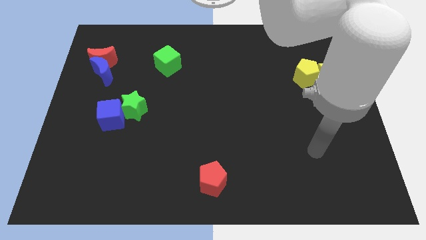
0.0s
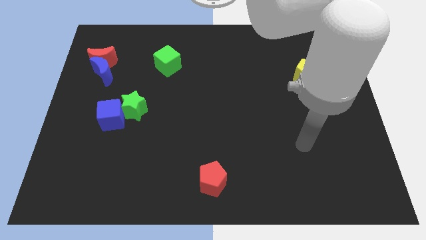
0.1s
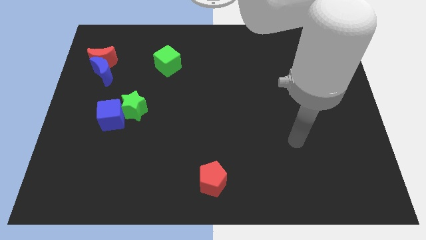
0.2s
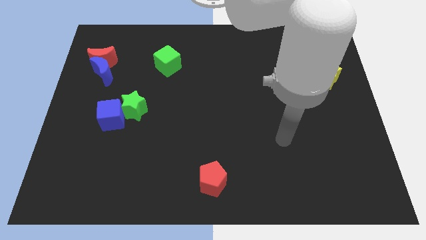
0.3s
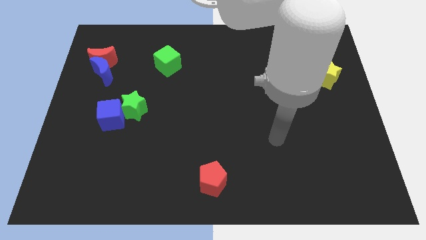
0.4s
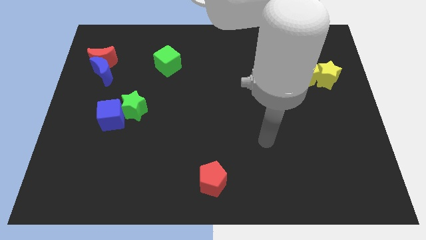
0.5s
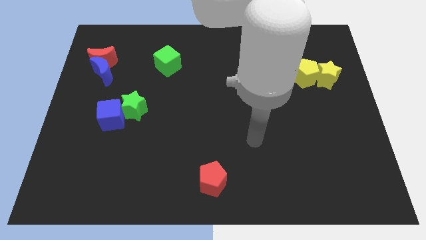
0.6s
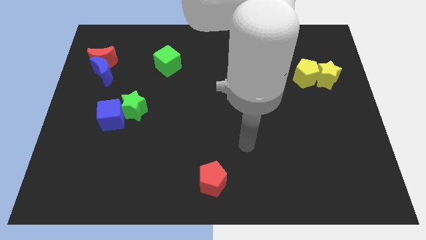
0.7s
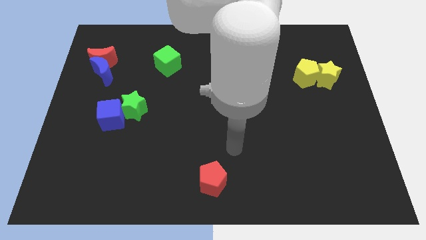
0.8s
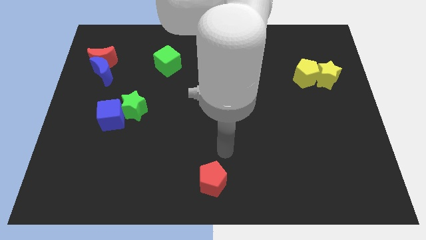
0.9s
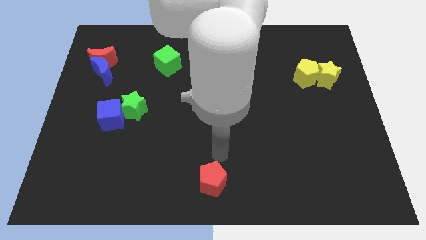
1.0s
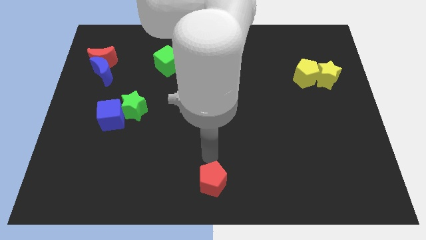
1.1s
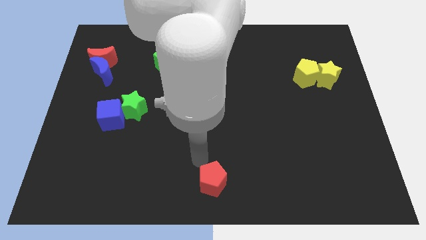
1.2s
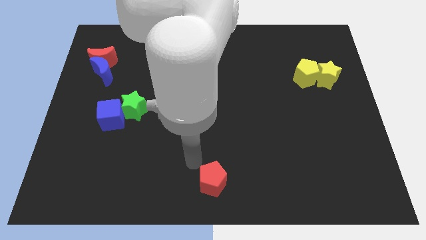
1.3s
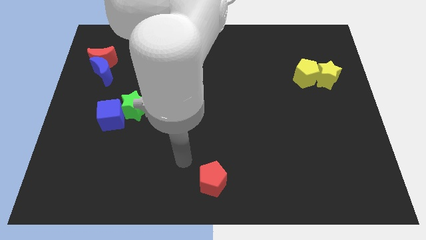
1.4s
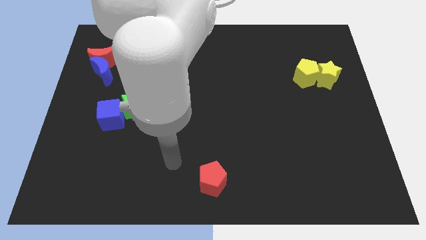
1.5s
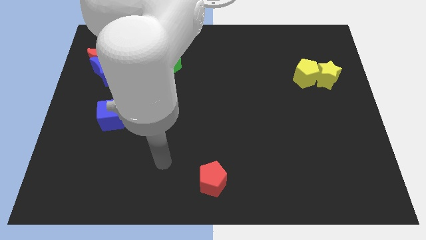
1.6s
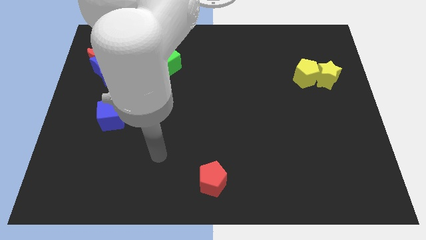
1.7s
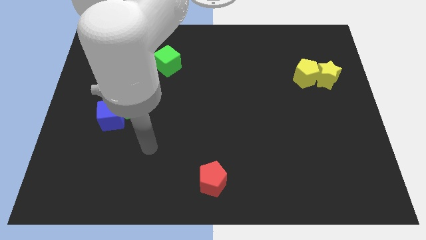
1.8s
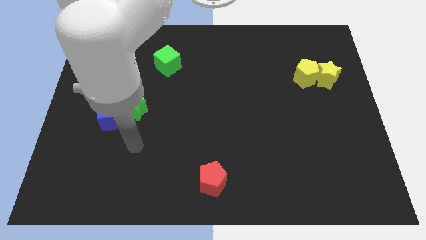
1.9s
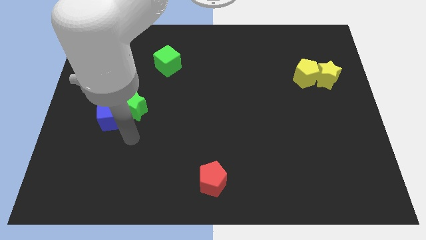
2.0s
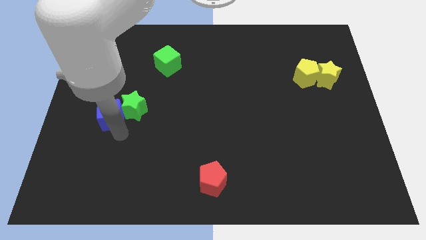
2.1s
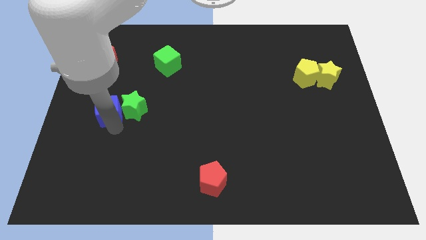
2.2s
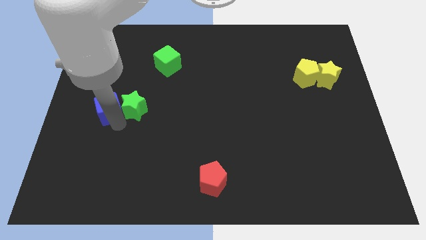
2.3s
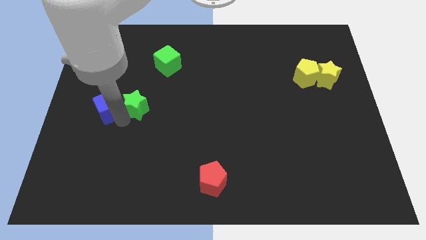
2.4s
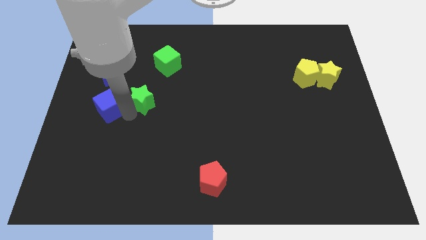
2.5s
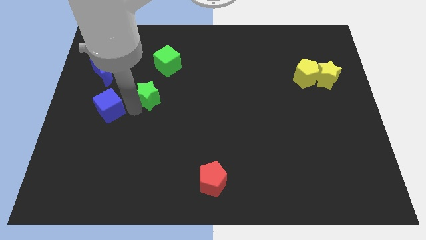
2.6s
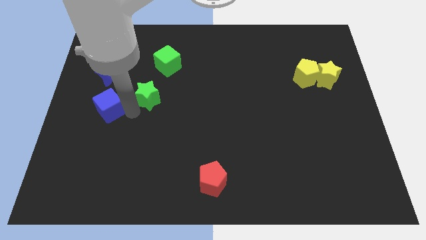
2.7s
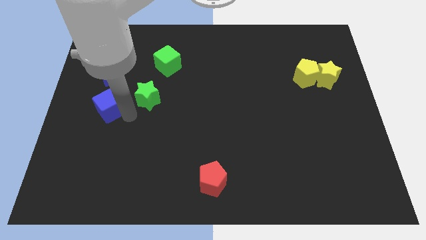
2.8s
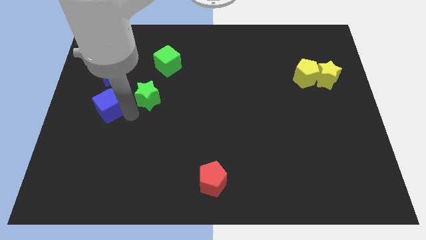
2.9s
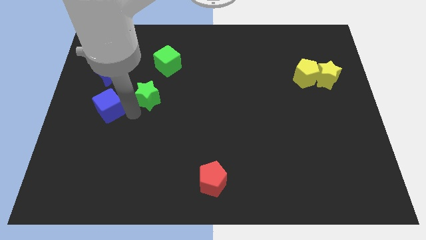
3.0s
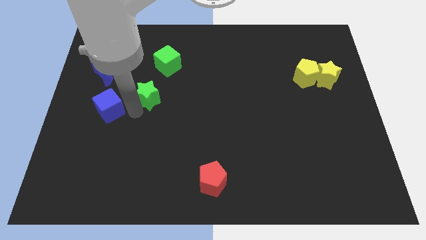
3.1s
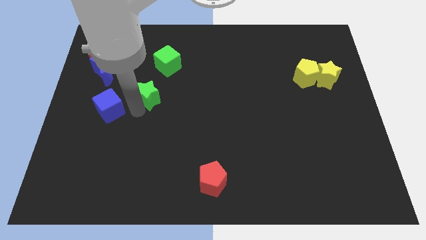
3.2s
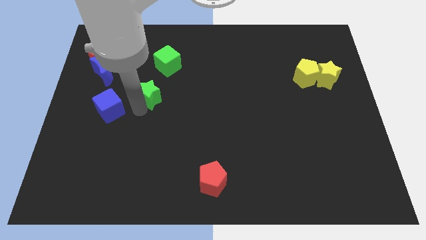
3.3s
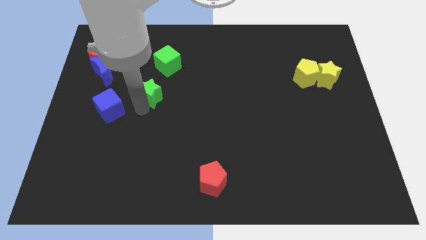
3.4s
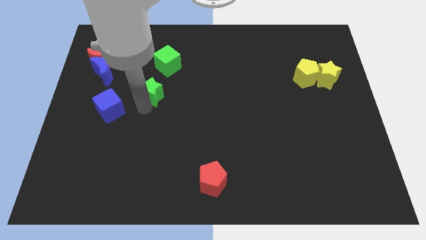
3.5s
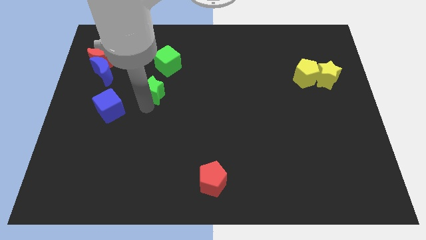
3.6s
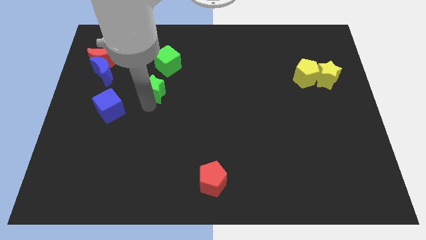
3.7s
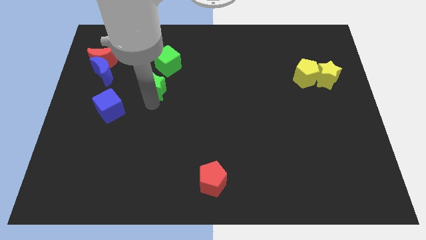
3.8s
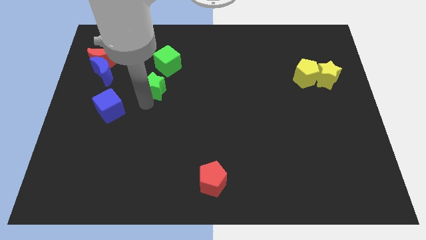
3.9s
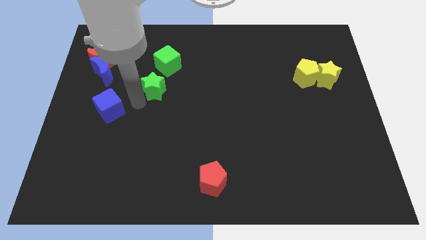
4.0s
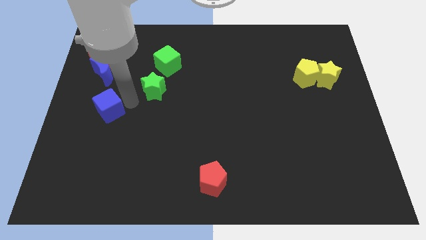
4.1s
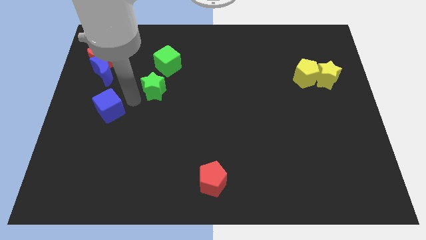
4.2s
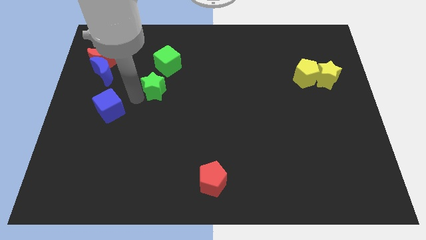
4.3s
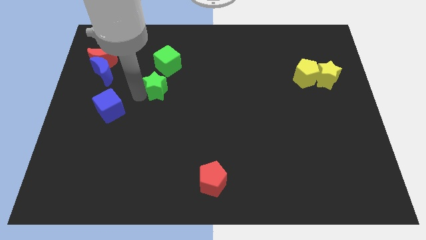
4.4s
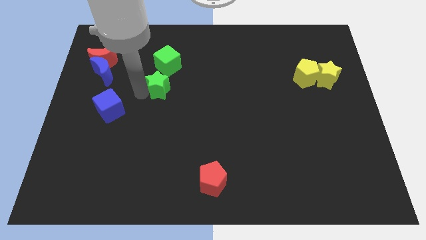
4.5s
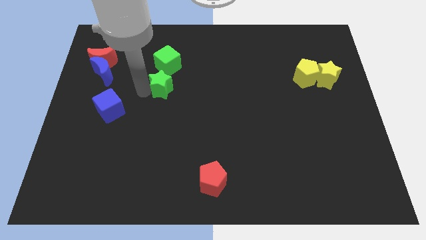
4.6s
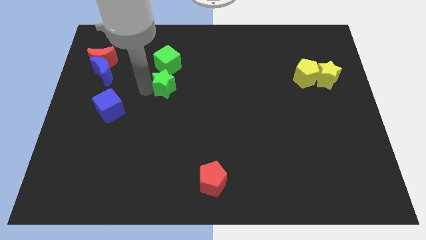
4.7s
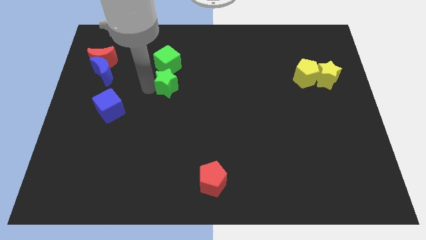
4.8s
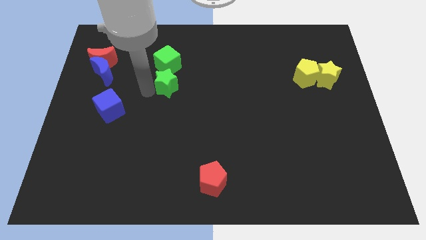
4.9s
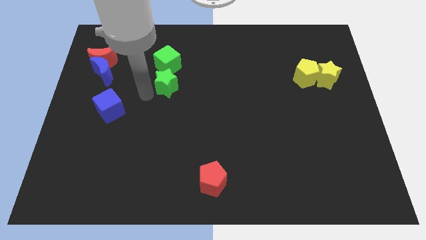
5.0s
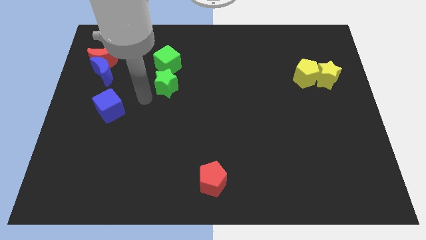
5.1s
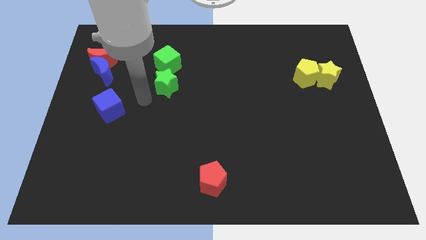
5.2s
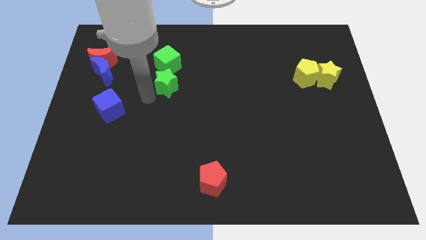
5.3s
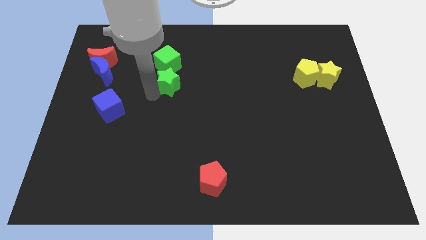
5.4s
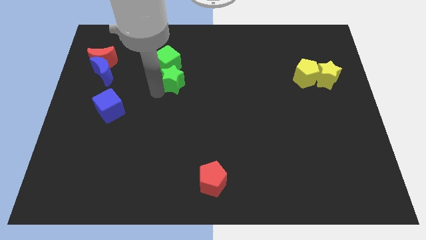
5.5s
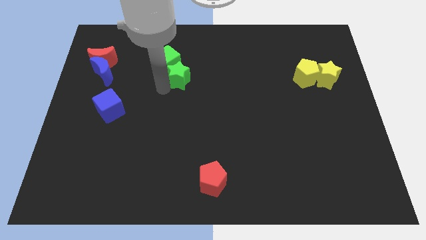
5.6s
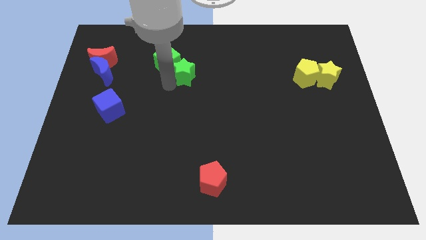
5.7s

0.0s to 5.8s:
move the green star to the right side of the green cube

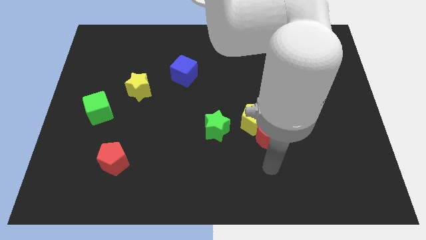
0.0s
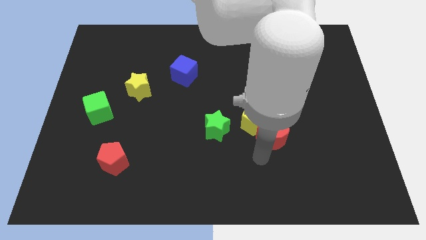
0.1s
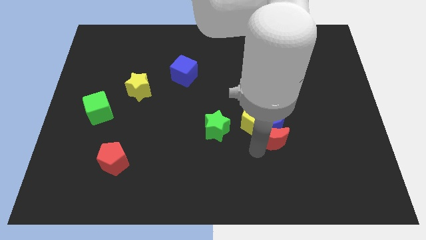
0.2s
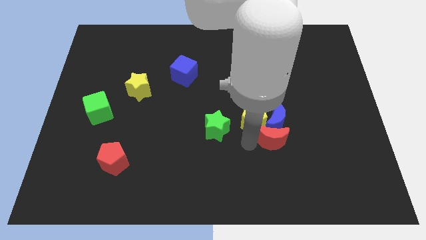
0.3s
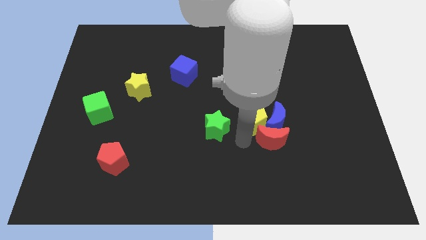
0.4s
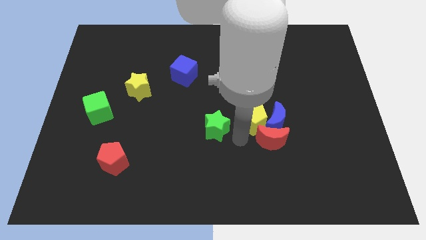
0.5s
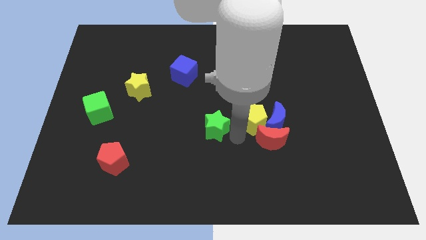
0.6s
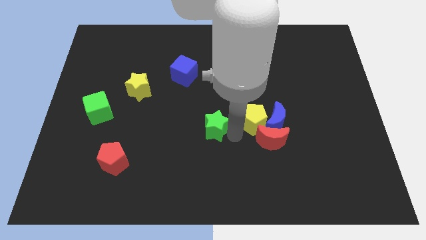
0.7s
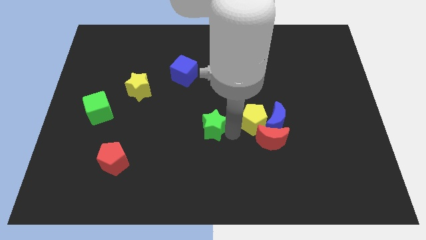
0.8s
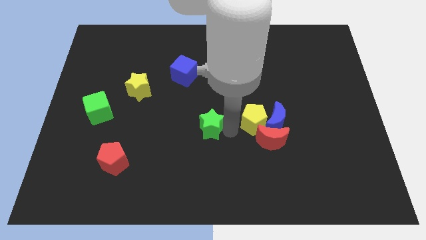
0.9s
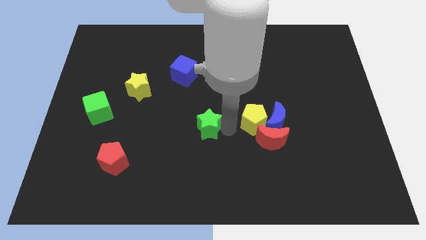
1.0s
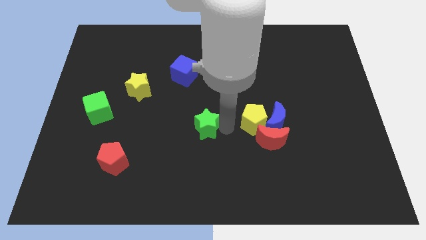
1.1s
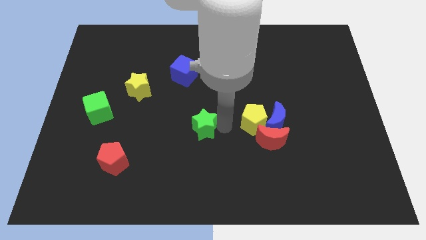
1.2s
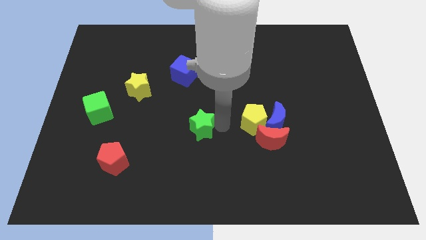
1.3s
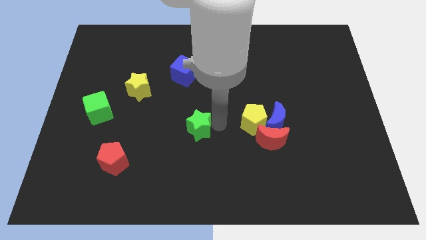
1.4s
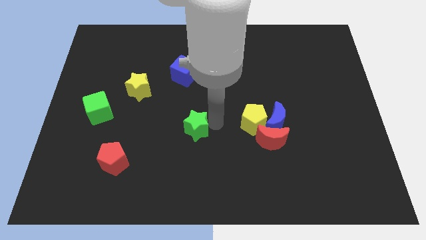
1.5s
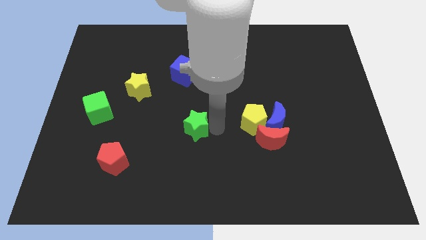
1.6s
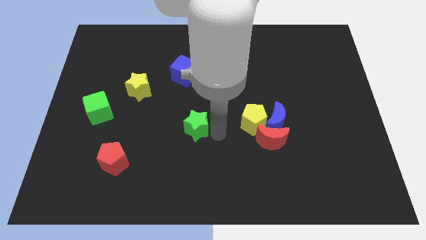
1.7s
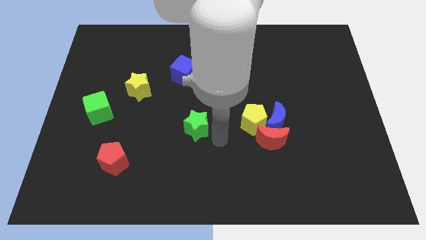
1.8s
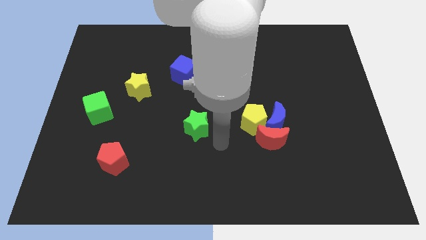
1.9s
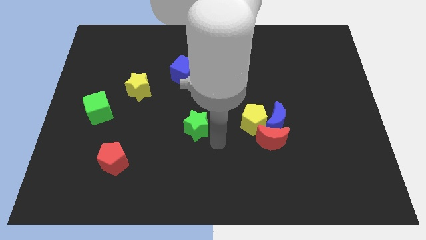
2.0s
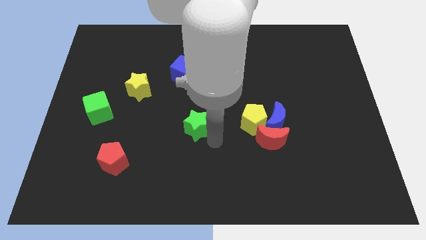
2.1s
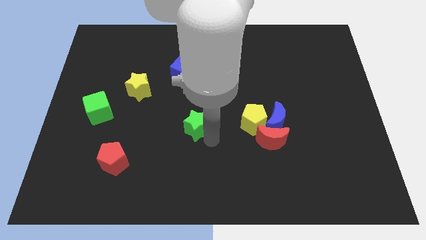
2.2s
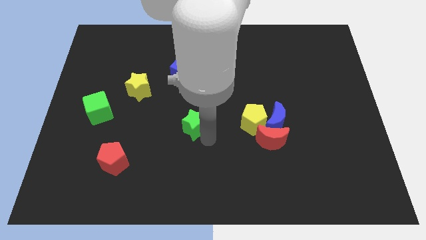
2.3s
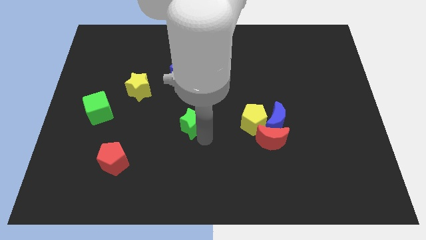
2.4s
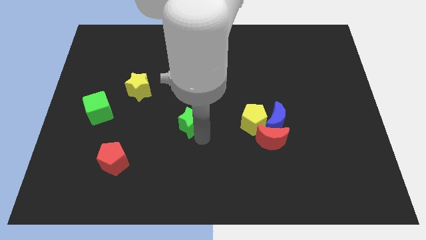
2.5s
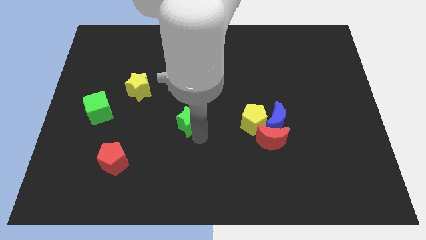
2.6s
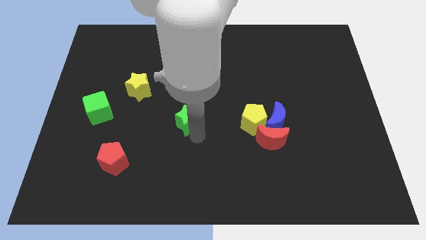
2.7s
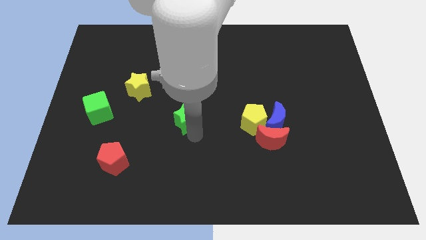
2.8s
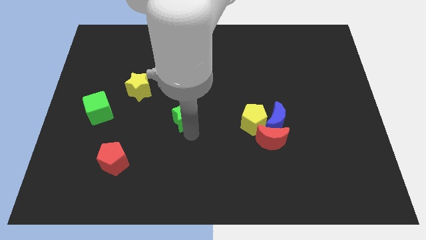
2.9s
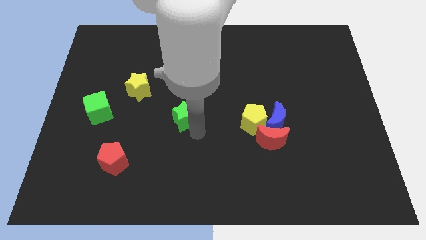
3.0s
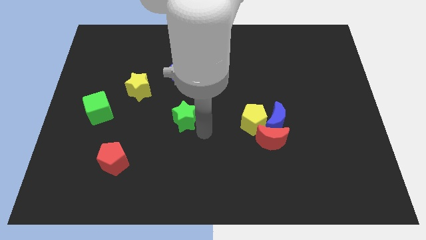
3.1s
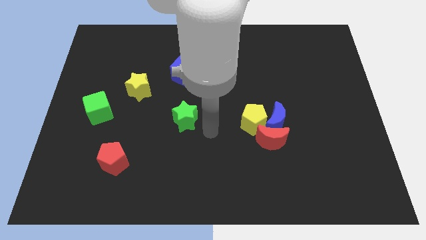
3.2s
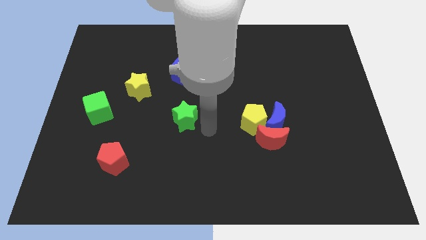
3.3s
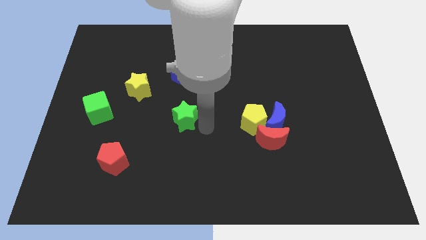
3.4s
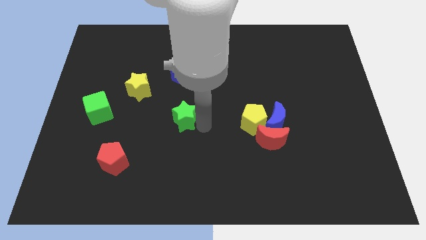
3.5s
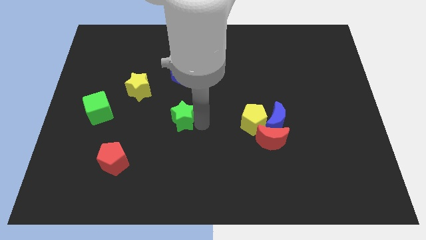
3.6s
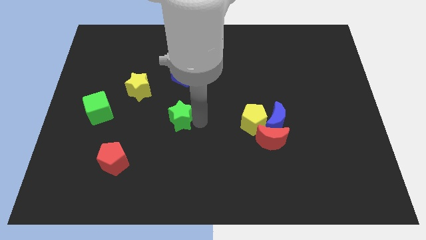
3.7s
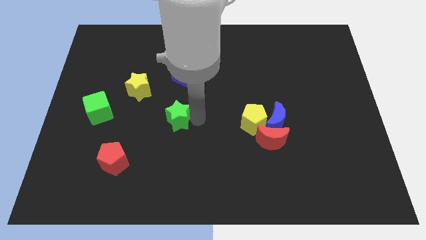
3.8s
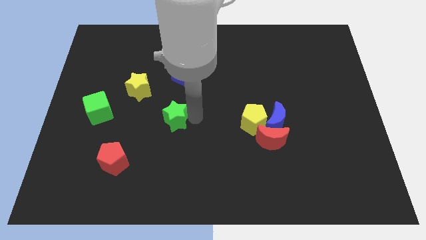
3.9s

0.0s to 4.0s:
push the green star diagonally down and to the right of the yellow star
